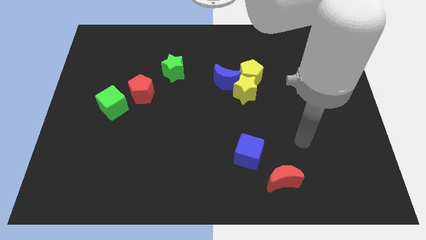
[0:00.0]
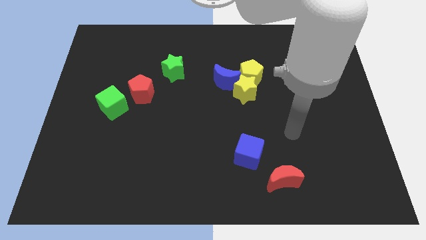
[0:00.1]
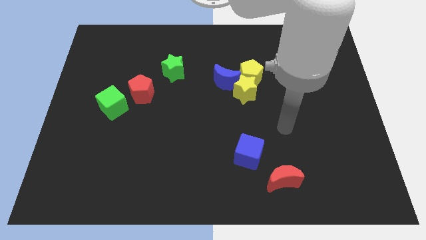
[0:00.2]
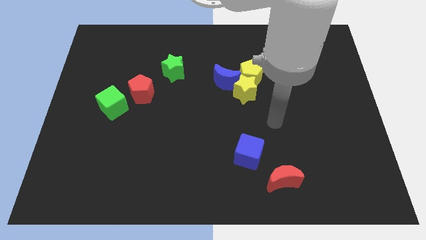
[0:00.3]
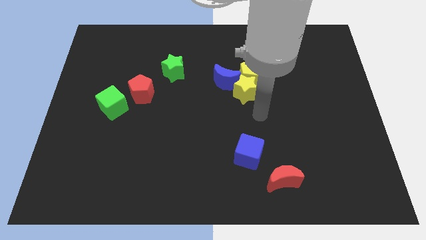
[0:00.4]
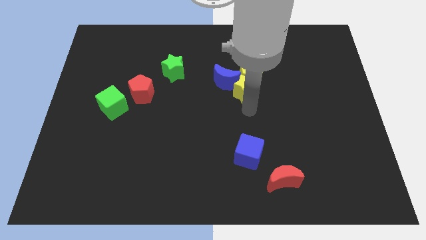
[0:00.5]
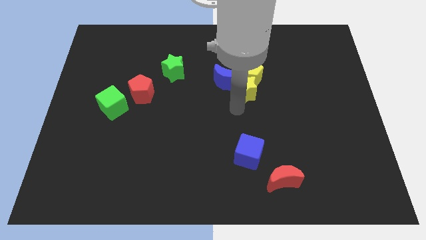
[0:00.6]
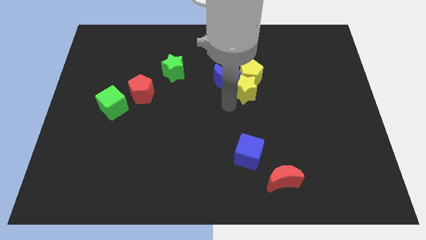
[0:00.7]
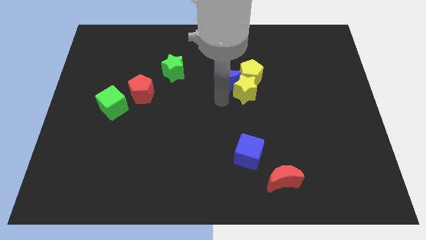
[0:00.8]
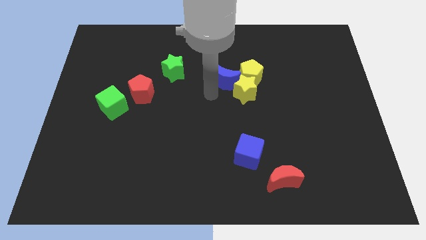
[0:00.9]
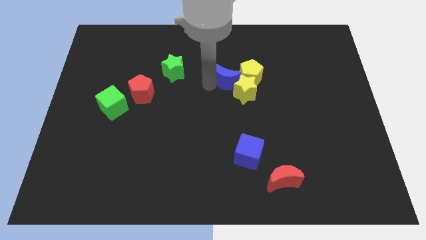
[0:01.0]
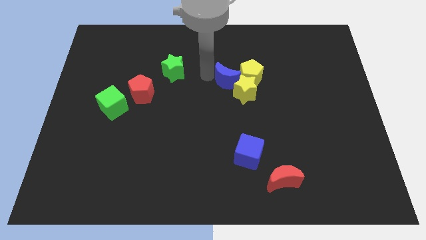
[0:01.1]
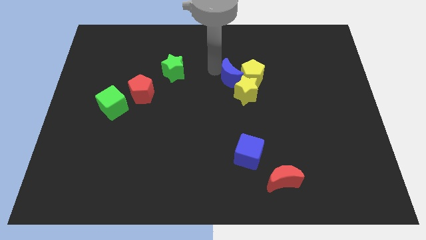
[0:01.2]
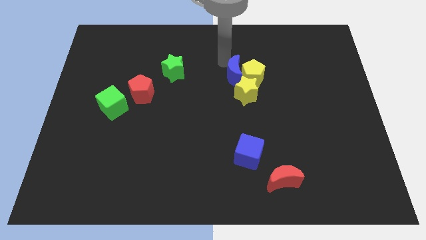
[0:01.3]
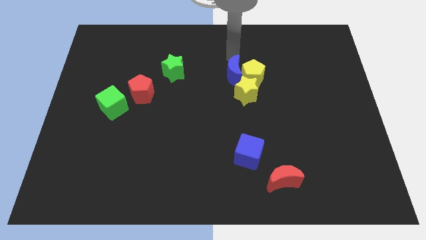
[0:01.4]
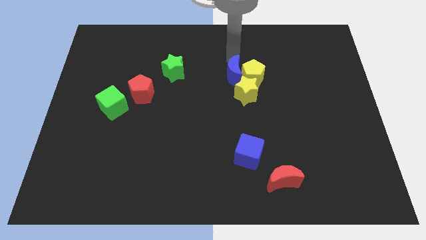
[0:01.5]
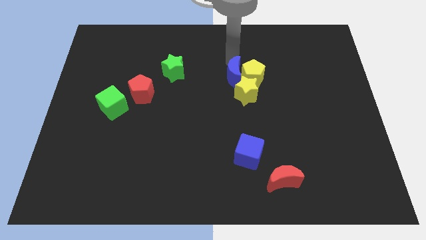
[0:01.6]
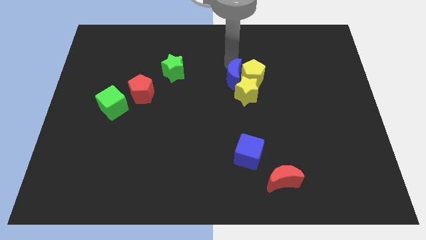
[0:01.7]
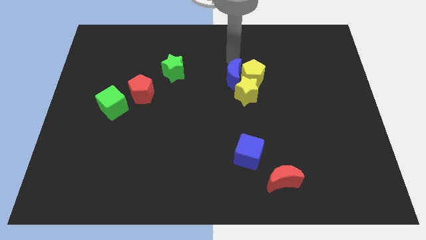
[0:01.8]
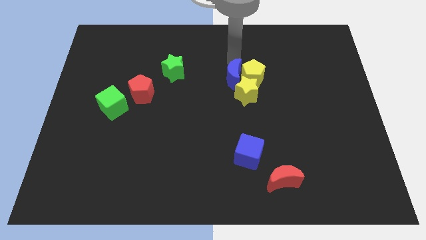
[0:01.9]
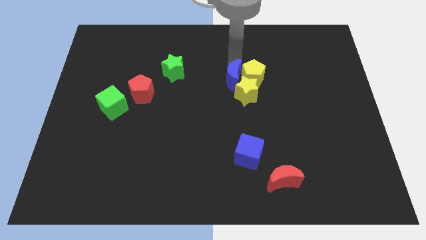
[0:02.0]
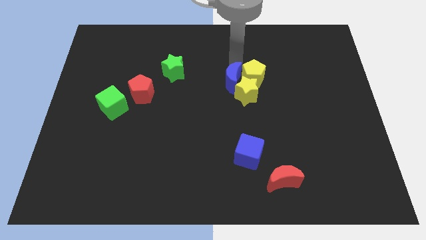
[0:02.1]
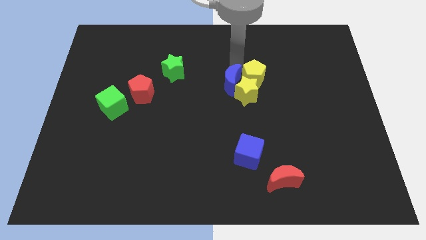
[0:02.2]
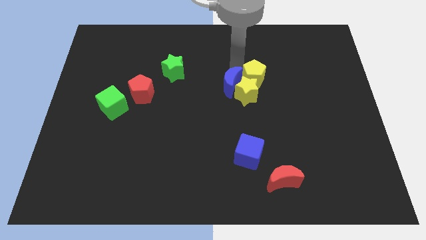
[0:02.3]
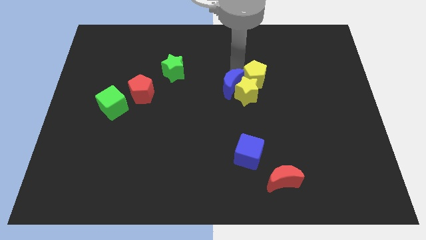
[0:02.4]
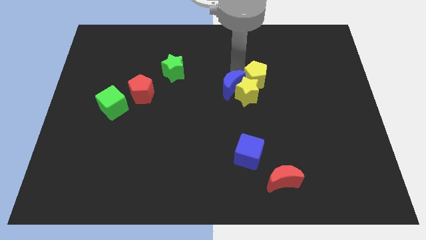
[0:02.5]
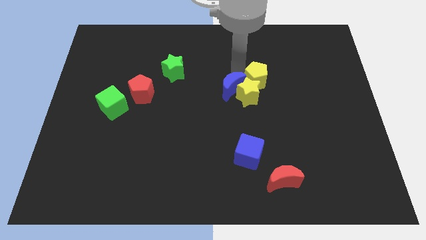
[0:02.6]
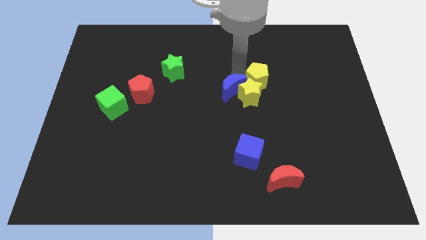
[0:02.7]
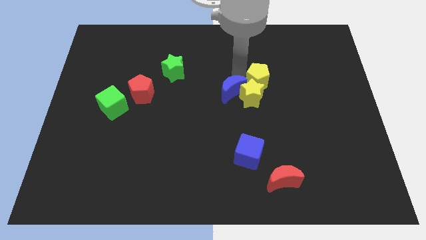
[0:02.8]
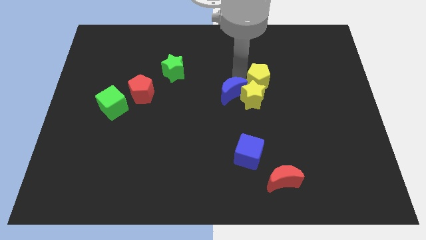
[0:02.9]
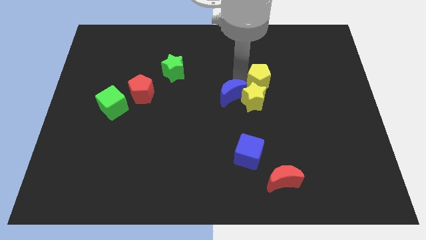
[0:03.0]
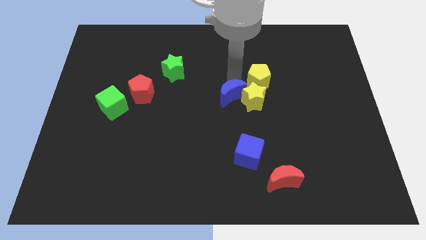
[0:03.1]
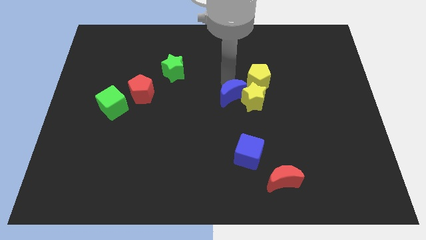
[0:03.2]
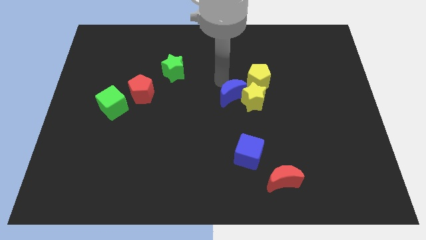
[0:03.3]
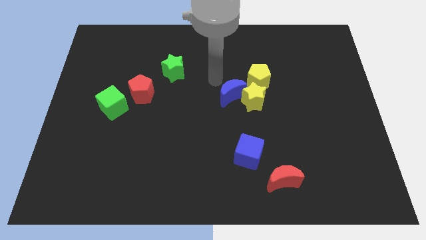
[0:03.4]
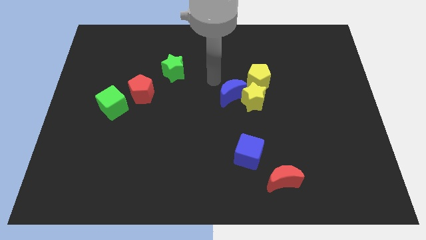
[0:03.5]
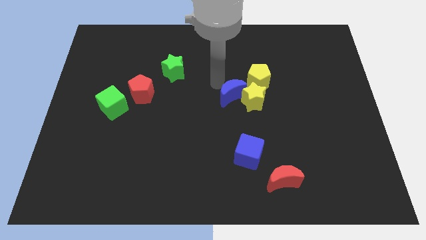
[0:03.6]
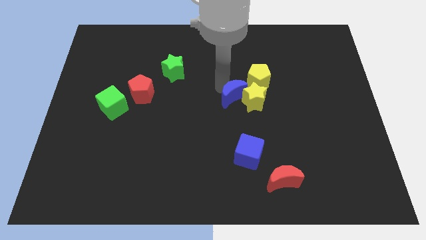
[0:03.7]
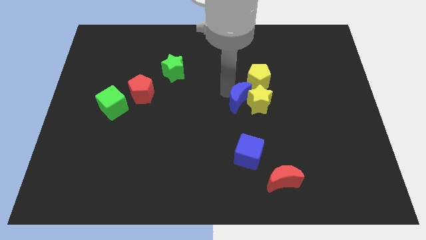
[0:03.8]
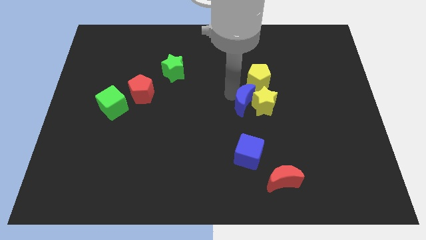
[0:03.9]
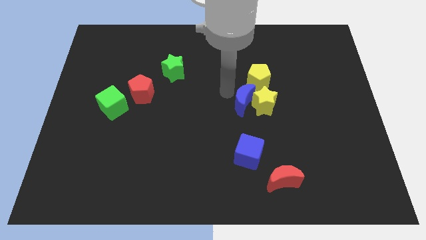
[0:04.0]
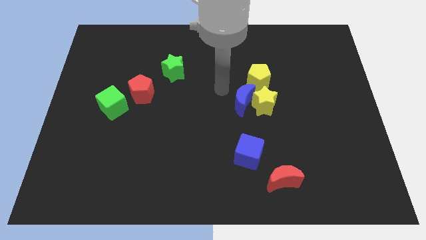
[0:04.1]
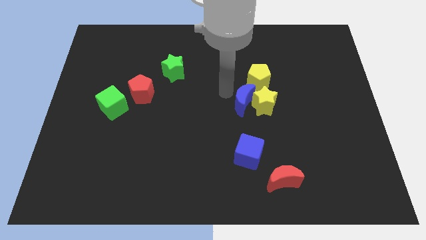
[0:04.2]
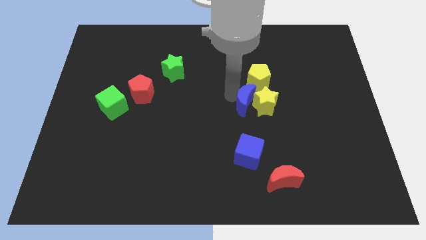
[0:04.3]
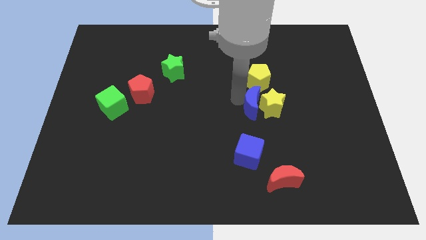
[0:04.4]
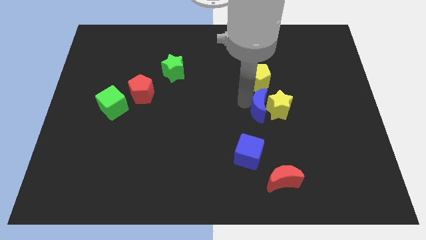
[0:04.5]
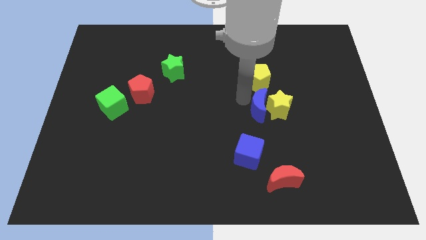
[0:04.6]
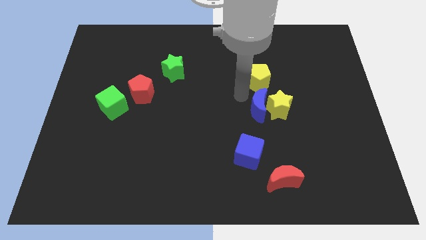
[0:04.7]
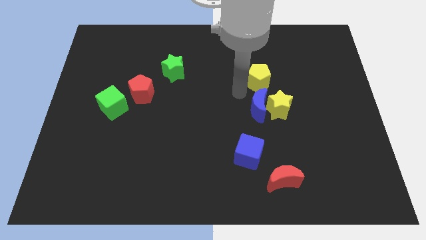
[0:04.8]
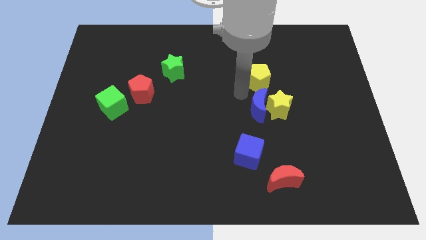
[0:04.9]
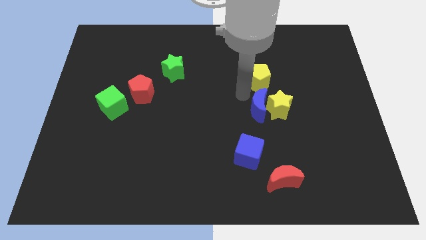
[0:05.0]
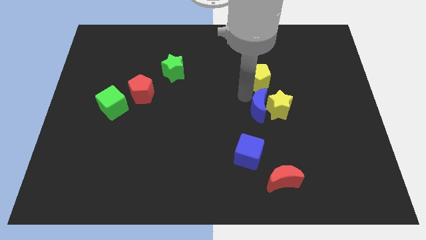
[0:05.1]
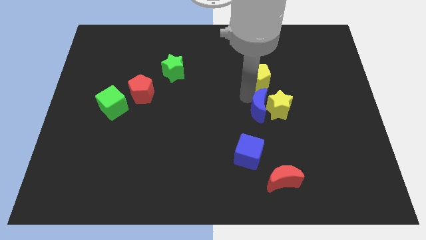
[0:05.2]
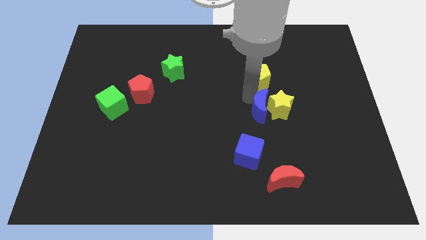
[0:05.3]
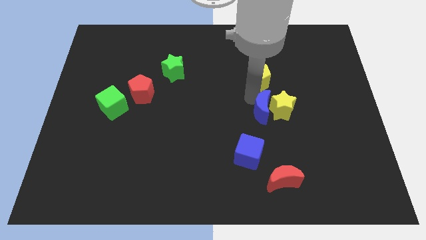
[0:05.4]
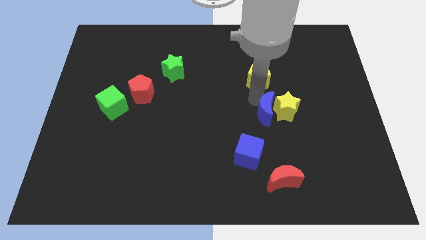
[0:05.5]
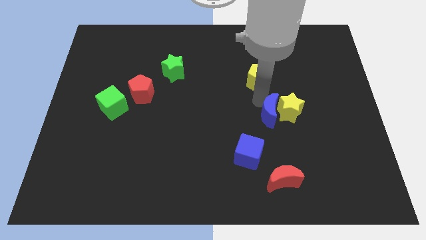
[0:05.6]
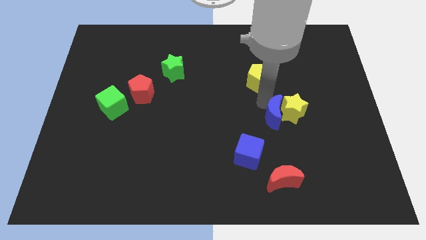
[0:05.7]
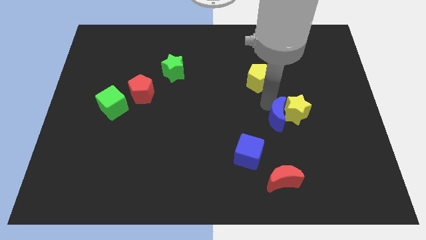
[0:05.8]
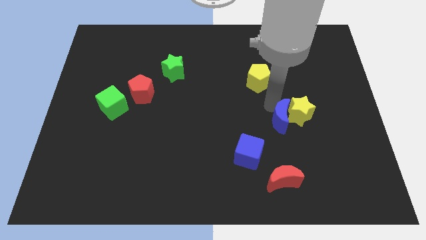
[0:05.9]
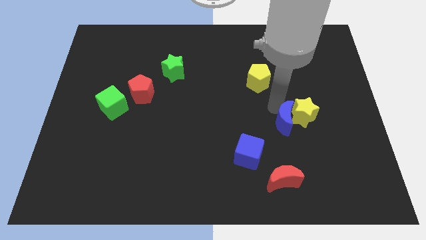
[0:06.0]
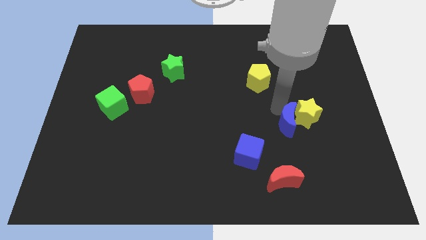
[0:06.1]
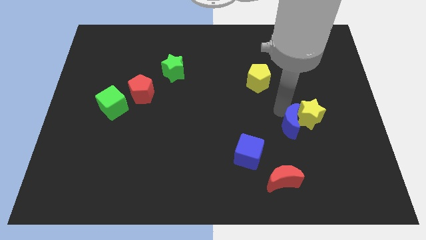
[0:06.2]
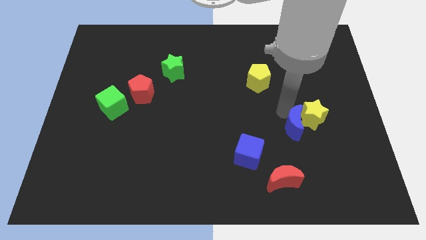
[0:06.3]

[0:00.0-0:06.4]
move the blue moon diagonally down and to the right

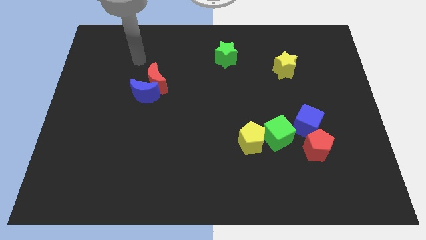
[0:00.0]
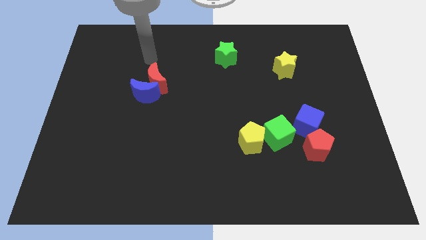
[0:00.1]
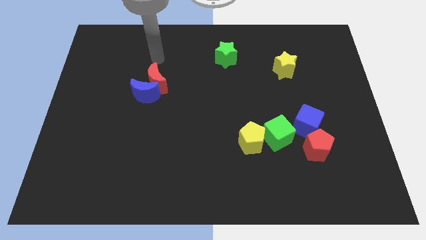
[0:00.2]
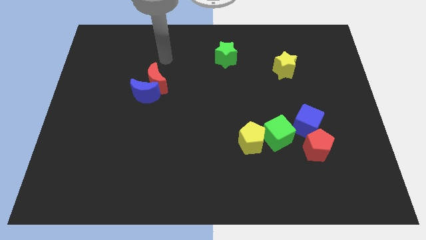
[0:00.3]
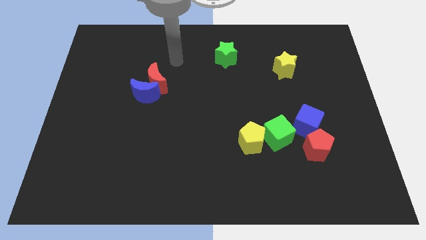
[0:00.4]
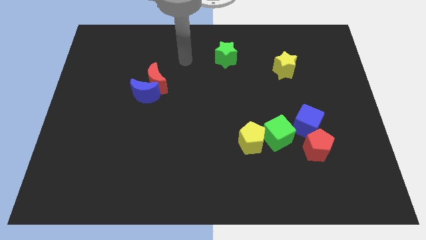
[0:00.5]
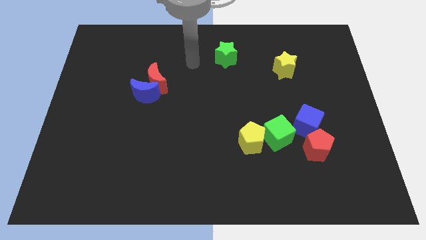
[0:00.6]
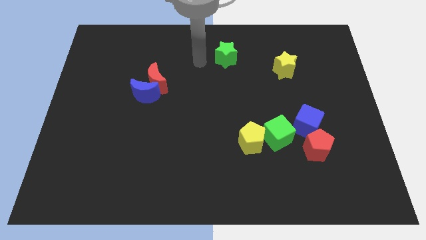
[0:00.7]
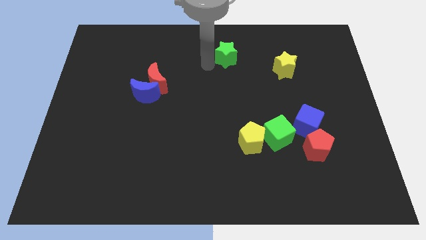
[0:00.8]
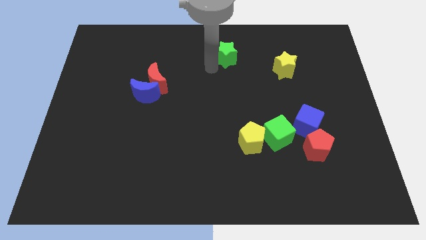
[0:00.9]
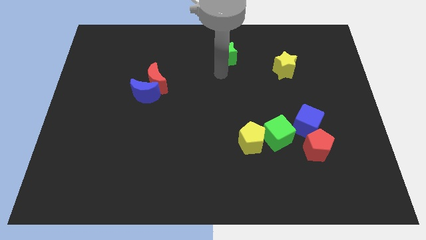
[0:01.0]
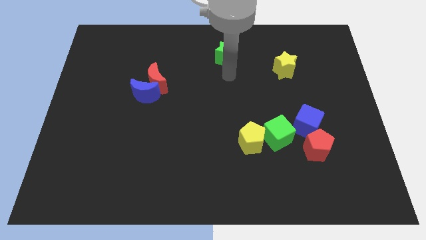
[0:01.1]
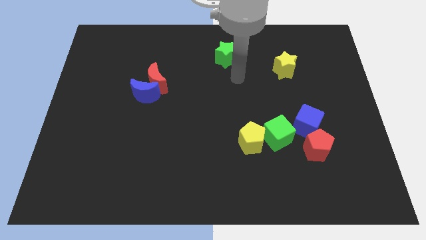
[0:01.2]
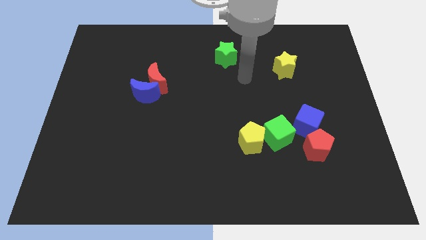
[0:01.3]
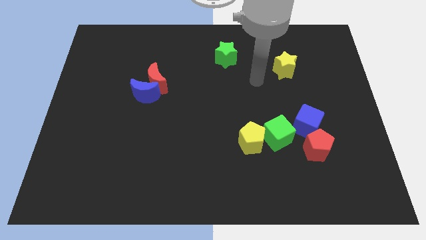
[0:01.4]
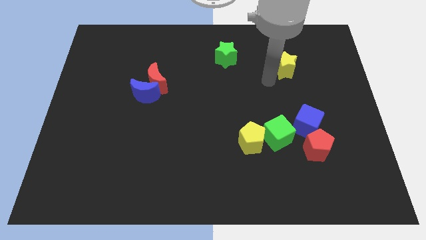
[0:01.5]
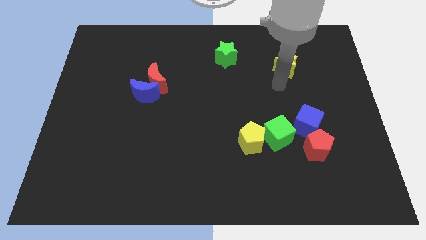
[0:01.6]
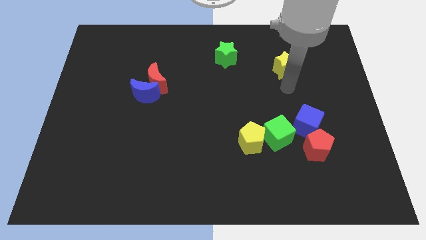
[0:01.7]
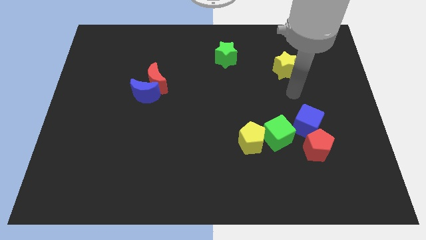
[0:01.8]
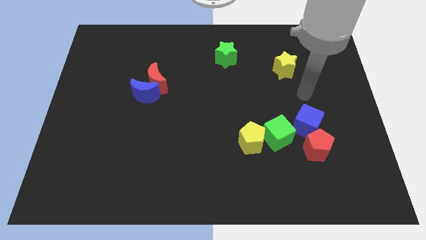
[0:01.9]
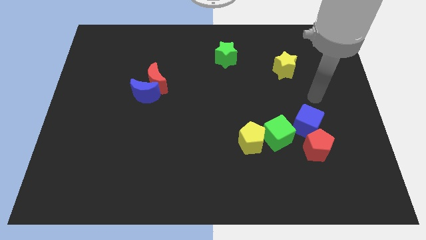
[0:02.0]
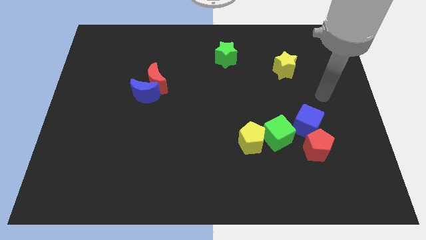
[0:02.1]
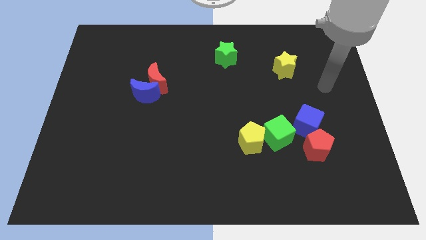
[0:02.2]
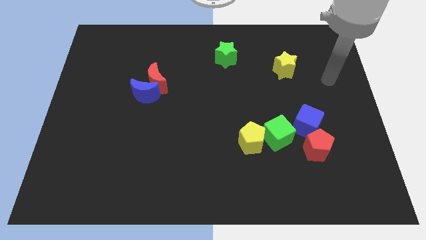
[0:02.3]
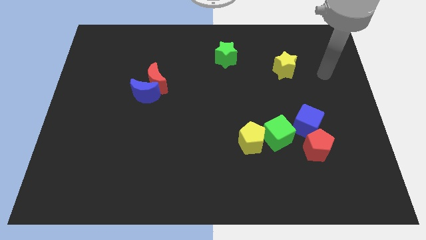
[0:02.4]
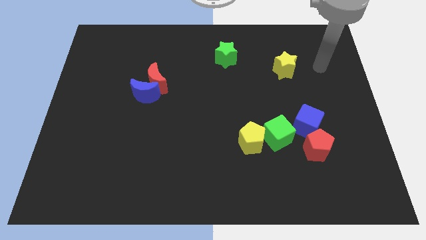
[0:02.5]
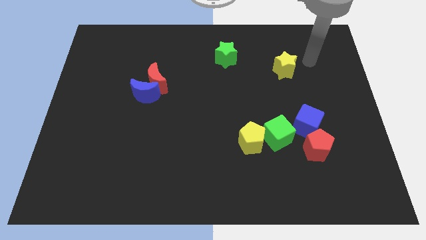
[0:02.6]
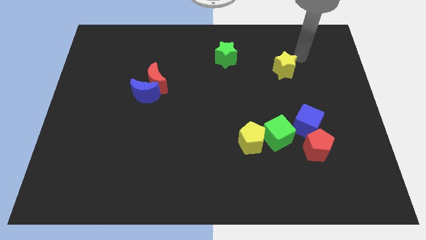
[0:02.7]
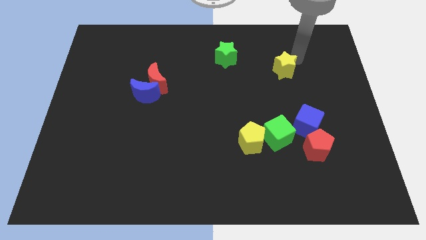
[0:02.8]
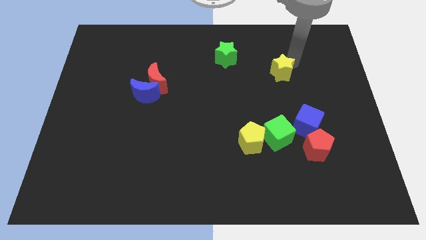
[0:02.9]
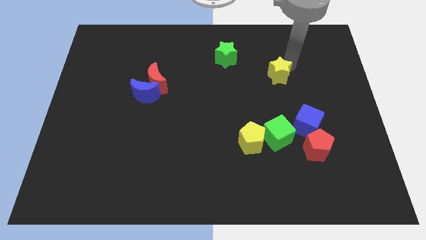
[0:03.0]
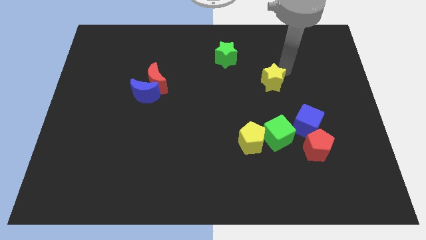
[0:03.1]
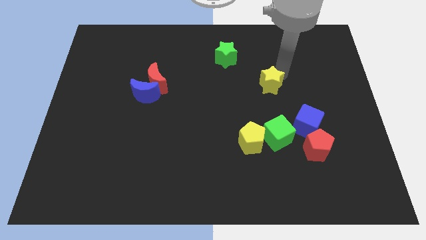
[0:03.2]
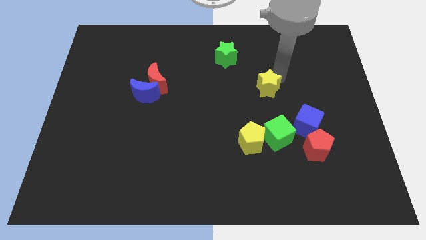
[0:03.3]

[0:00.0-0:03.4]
move the yellow star a bit downwards and then to the left
